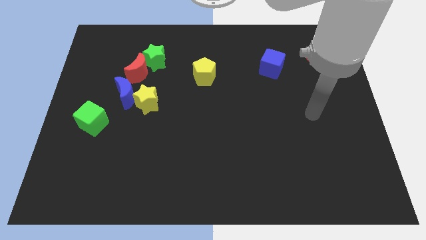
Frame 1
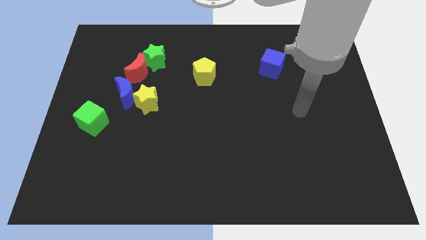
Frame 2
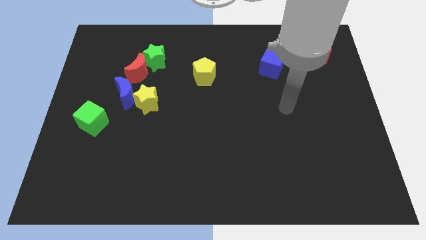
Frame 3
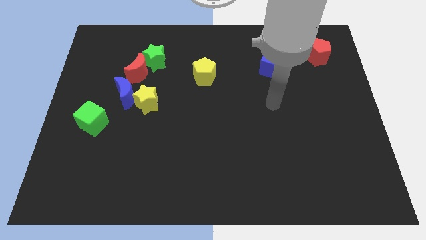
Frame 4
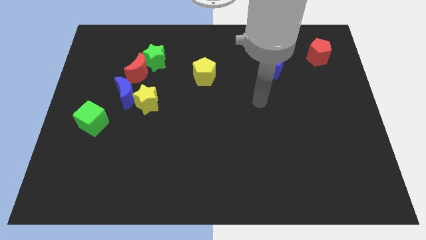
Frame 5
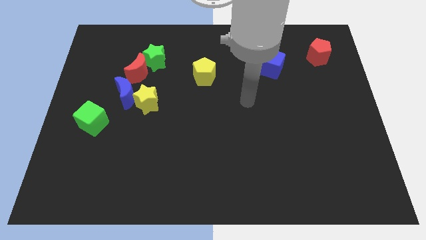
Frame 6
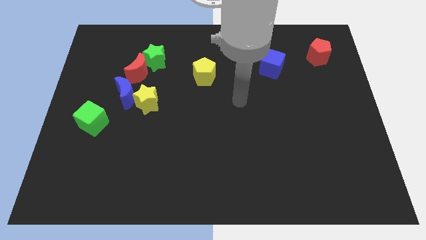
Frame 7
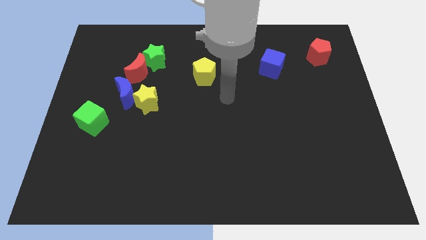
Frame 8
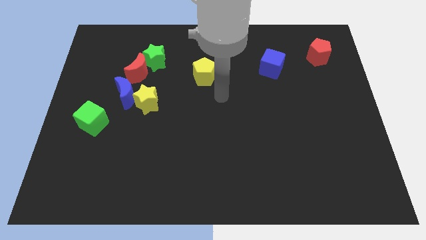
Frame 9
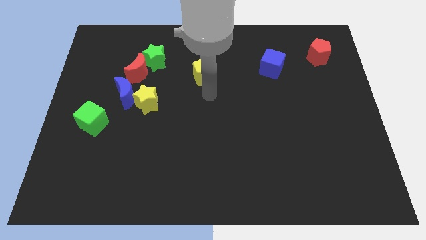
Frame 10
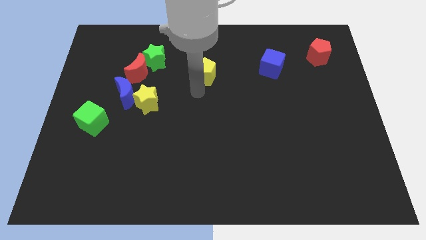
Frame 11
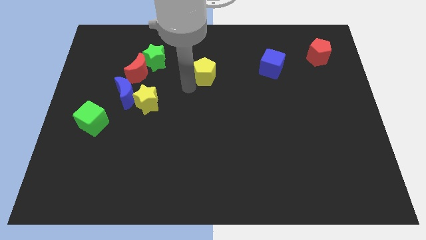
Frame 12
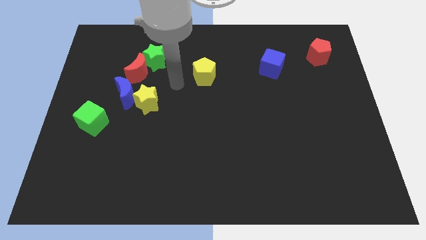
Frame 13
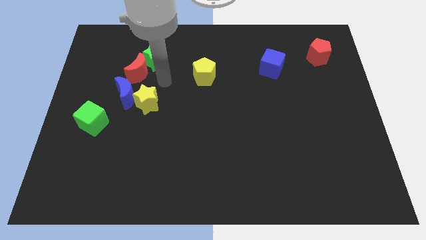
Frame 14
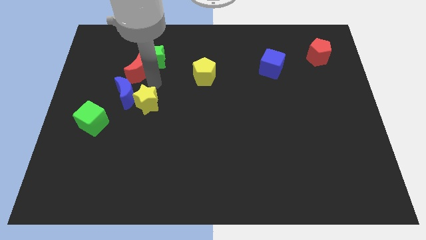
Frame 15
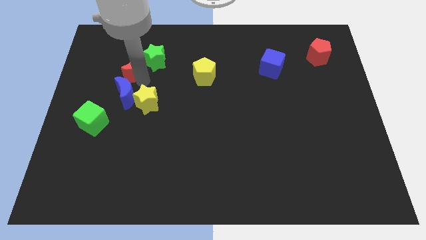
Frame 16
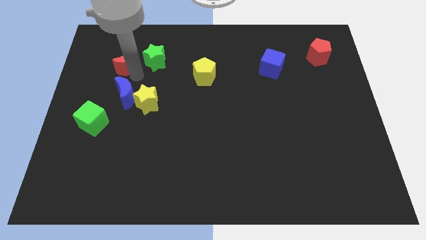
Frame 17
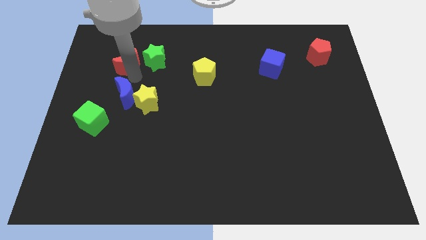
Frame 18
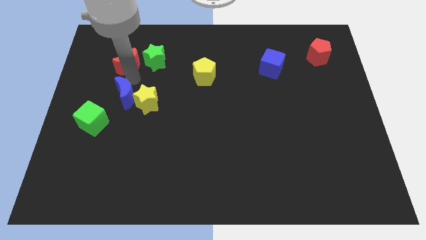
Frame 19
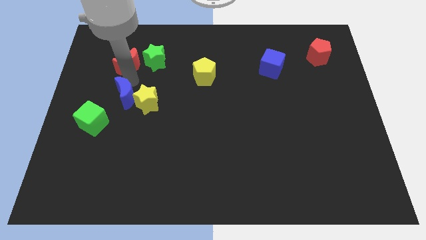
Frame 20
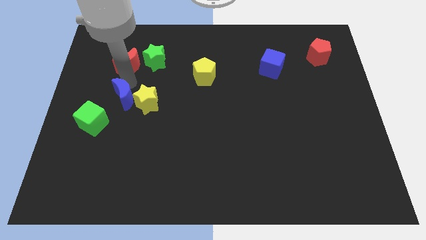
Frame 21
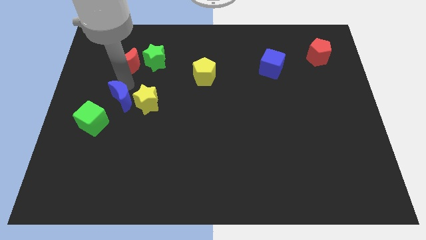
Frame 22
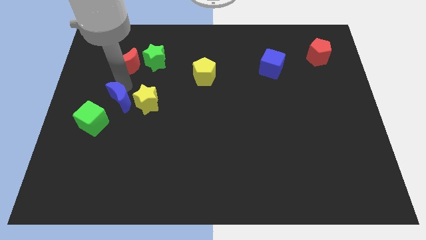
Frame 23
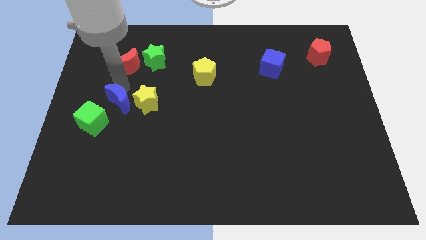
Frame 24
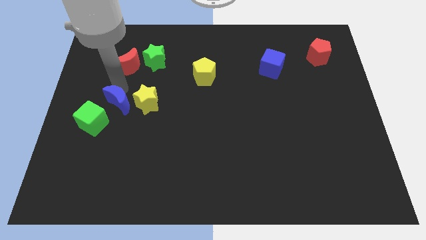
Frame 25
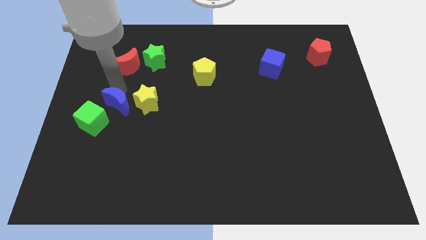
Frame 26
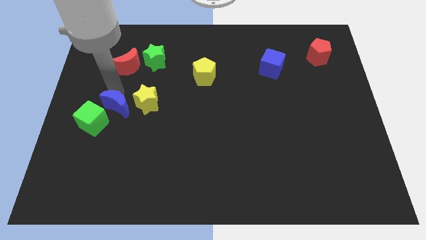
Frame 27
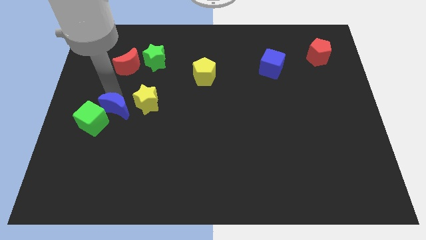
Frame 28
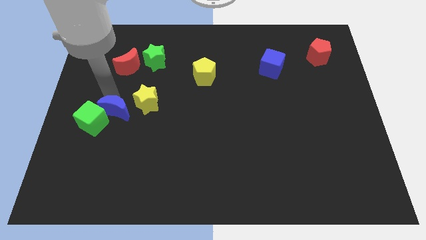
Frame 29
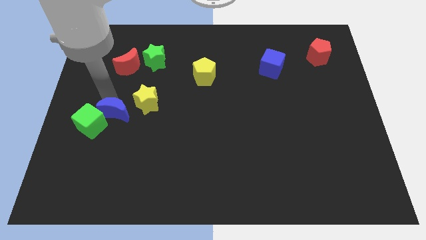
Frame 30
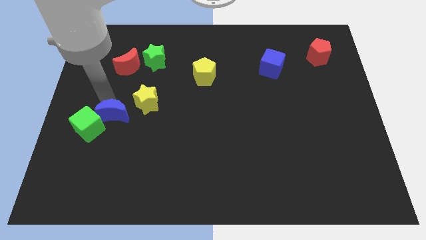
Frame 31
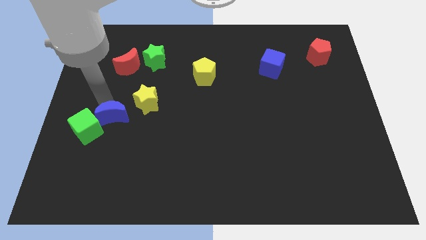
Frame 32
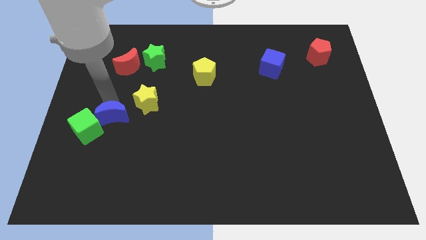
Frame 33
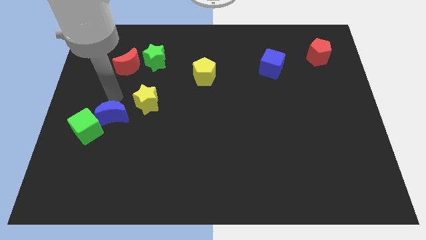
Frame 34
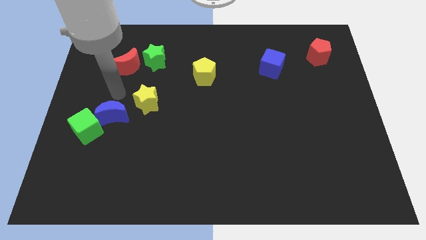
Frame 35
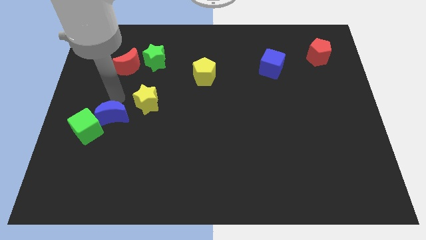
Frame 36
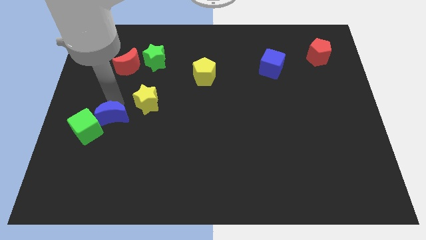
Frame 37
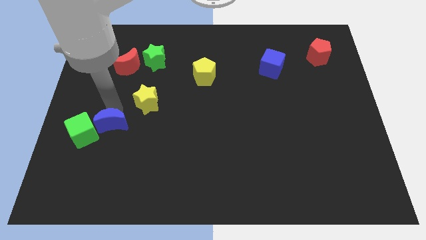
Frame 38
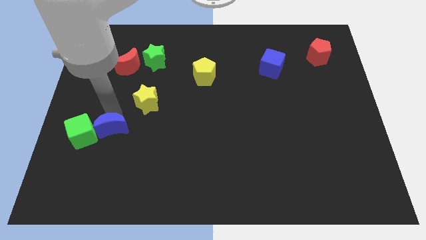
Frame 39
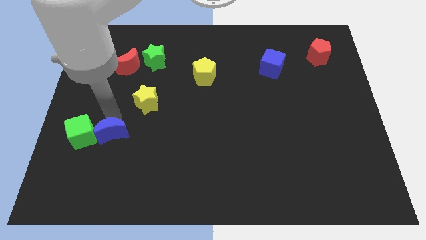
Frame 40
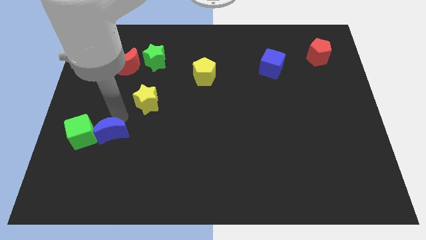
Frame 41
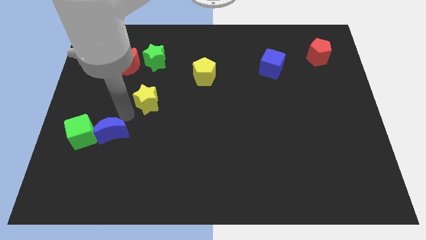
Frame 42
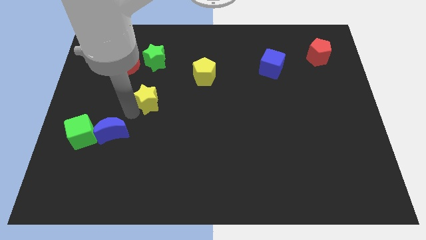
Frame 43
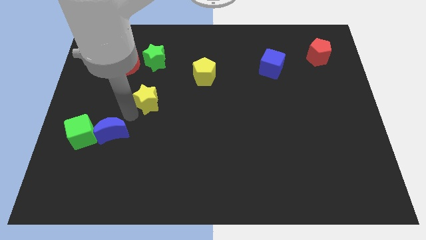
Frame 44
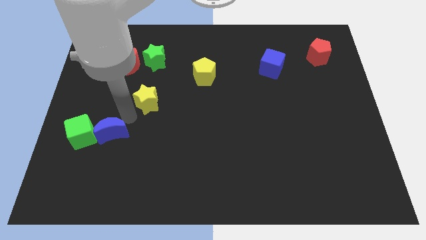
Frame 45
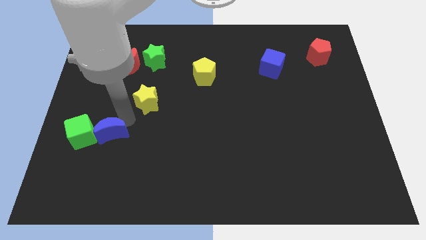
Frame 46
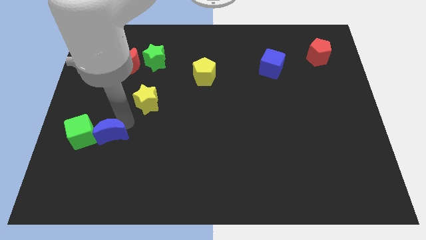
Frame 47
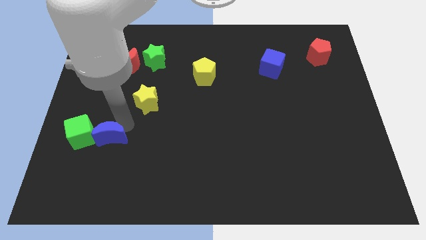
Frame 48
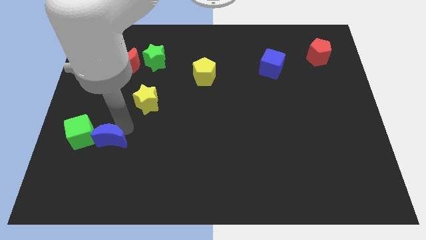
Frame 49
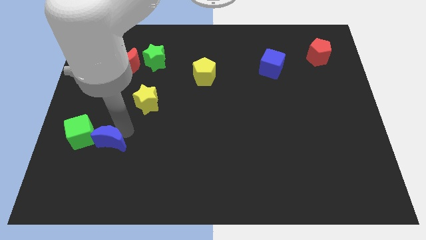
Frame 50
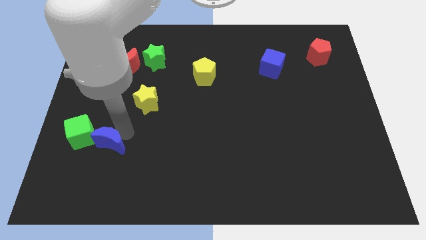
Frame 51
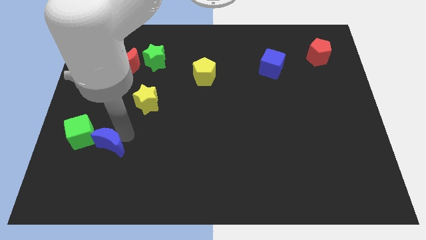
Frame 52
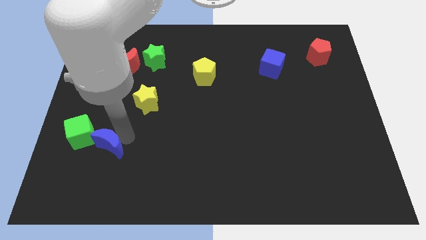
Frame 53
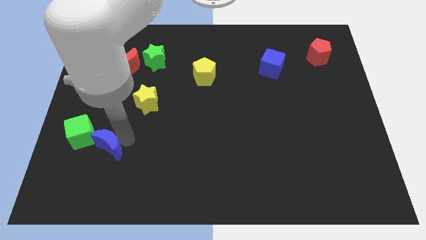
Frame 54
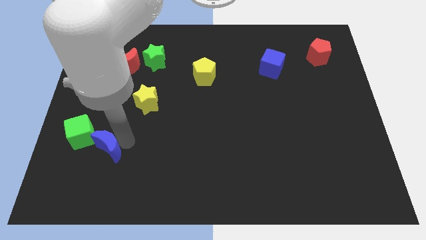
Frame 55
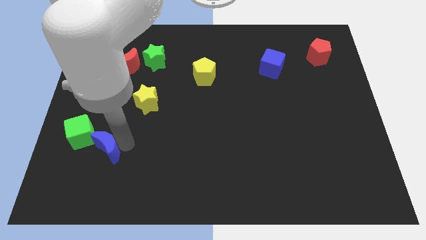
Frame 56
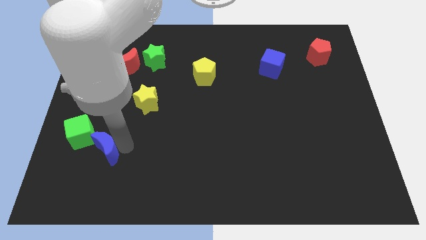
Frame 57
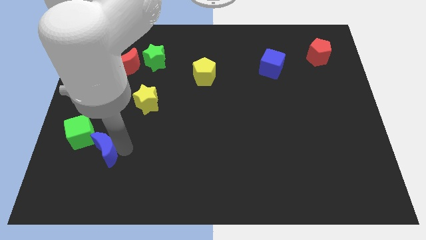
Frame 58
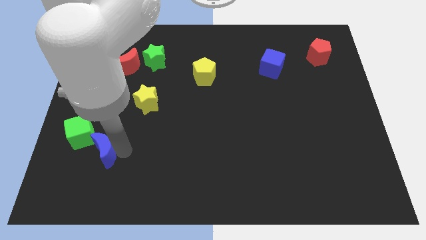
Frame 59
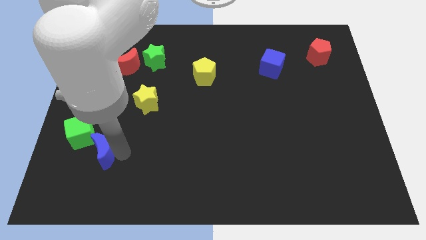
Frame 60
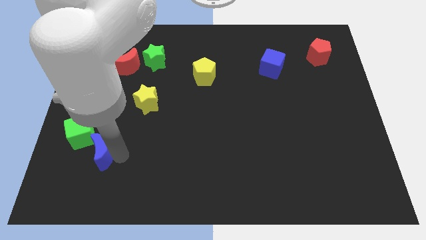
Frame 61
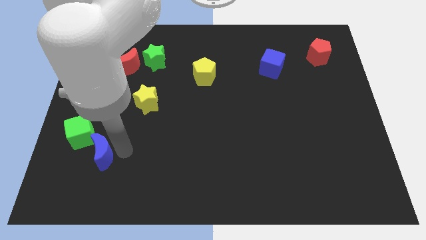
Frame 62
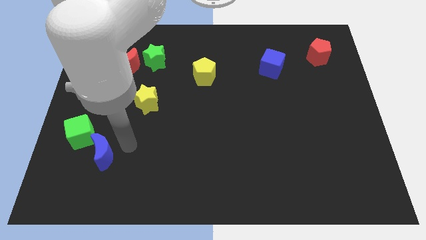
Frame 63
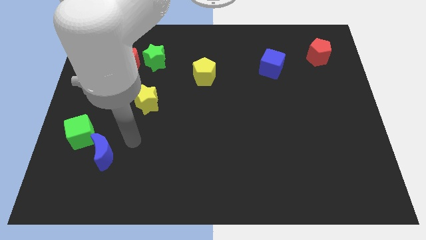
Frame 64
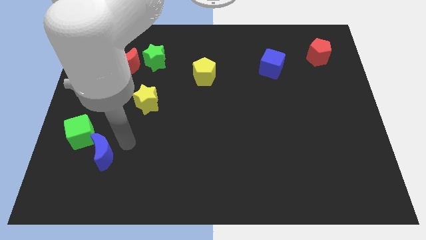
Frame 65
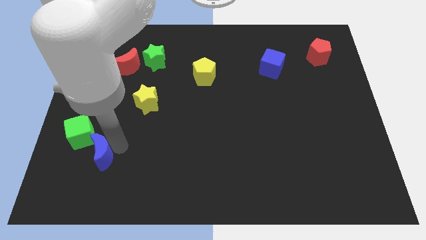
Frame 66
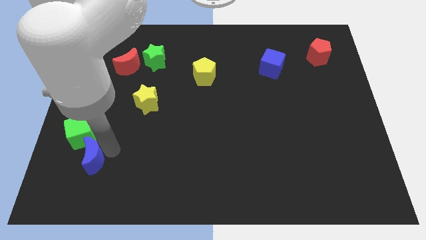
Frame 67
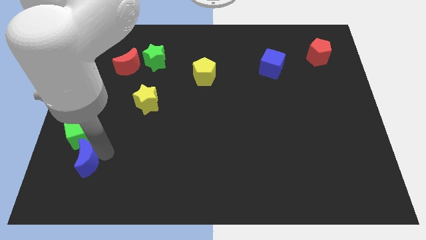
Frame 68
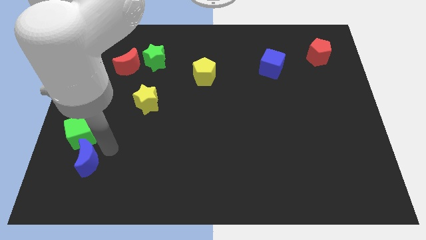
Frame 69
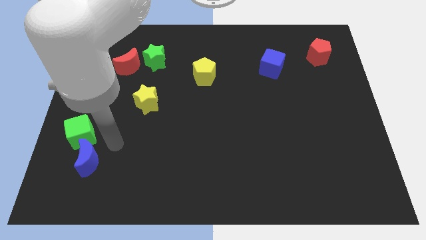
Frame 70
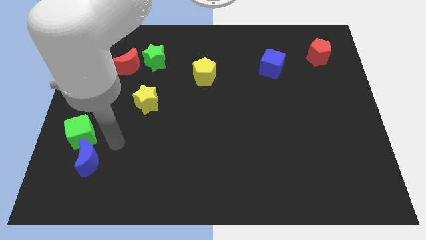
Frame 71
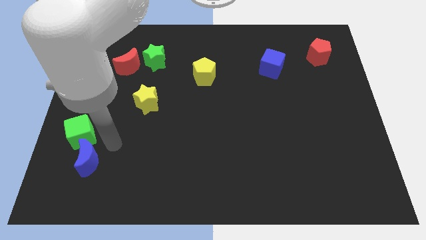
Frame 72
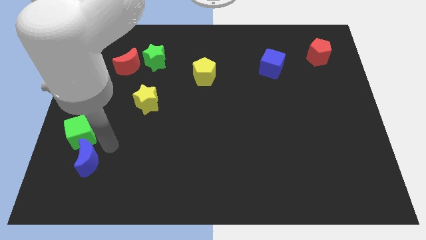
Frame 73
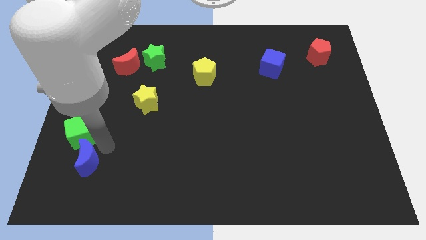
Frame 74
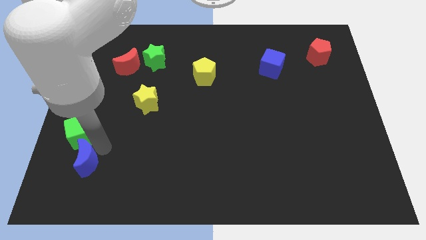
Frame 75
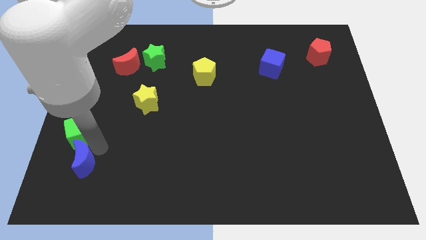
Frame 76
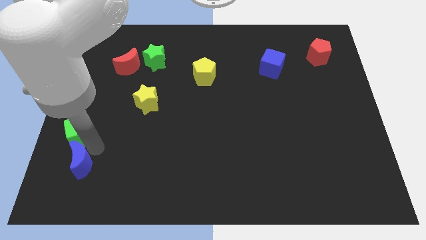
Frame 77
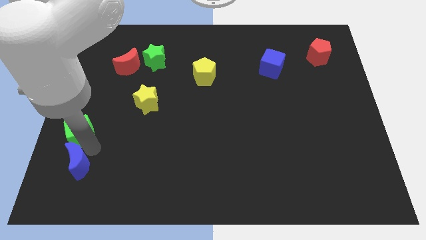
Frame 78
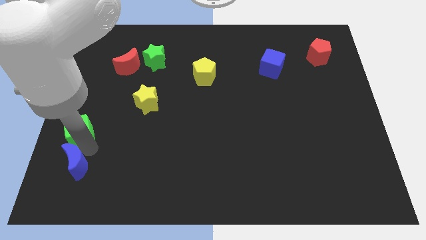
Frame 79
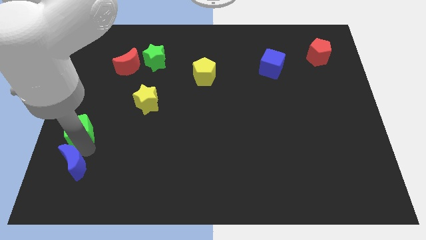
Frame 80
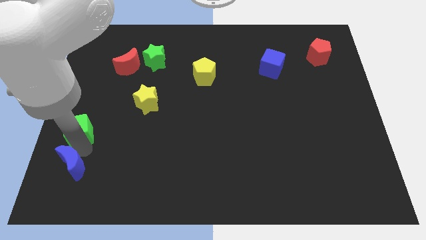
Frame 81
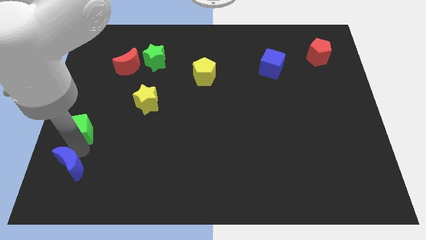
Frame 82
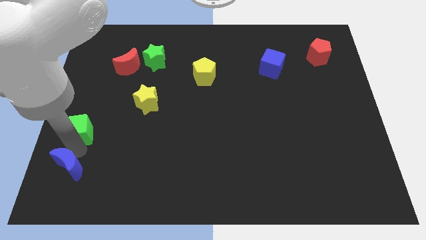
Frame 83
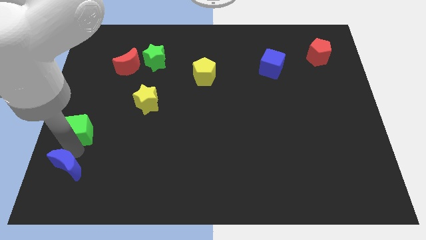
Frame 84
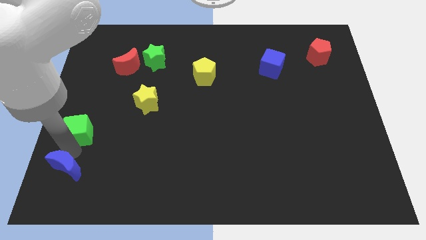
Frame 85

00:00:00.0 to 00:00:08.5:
move the blue moon to the bottom left
